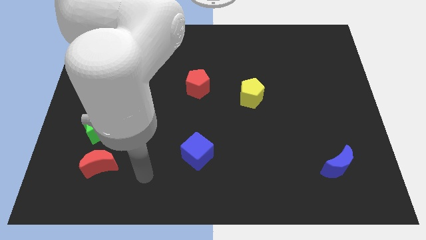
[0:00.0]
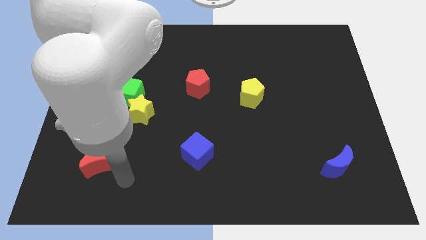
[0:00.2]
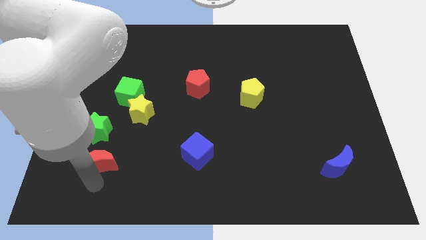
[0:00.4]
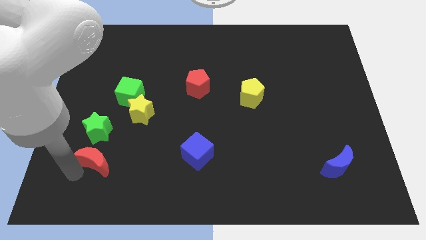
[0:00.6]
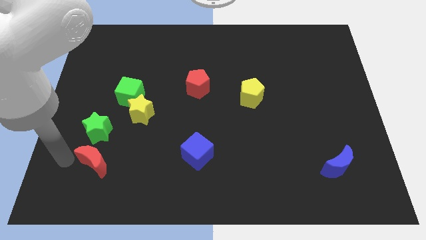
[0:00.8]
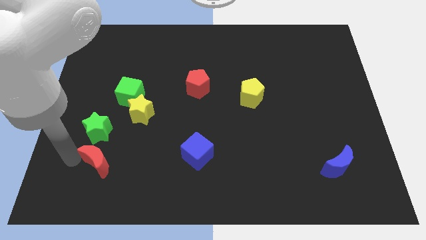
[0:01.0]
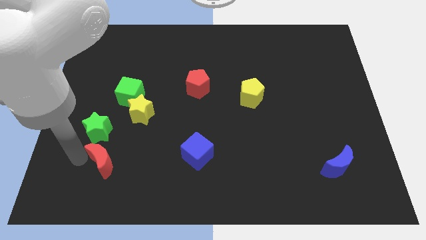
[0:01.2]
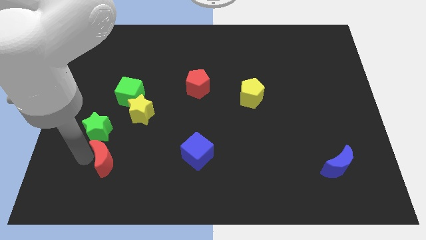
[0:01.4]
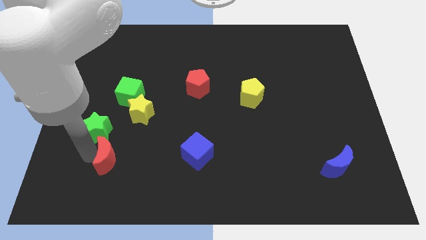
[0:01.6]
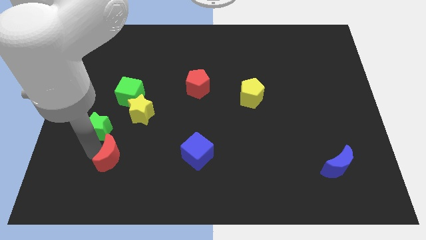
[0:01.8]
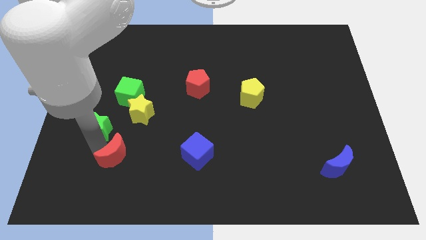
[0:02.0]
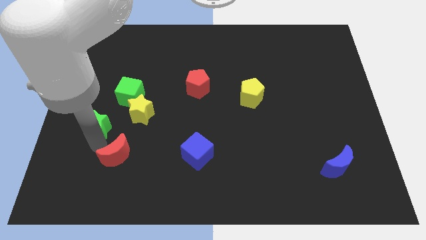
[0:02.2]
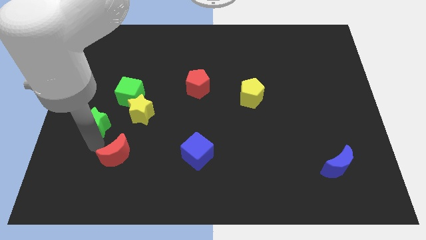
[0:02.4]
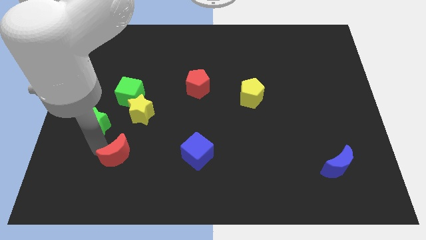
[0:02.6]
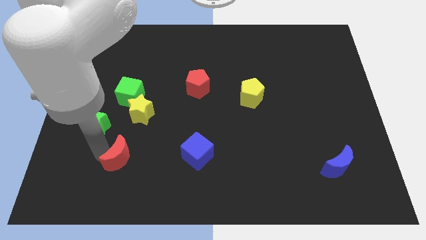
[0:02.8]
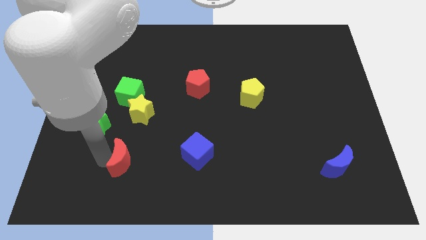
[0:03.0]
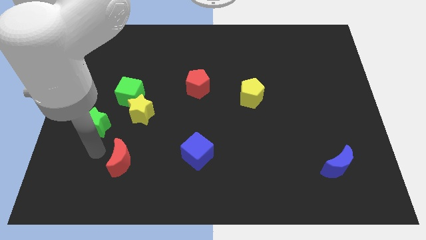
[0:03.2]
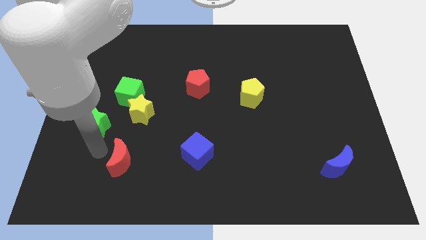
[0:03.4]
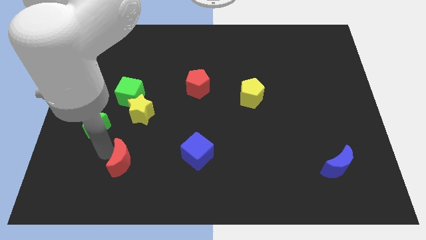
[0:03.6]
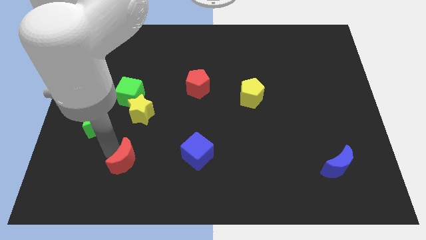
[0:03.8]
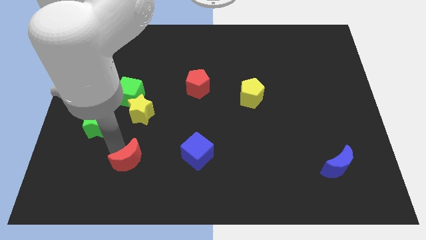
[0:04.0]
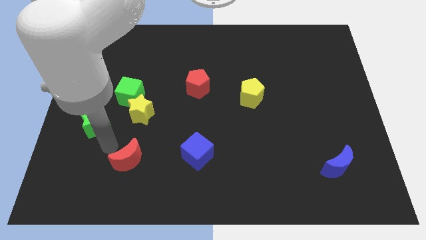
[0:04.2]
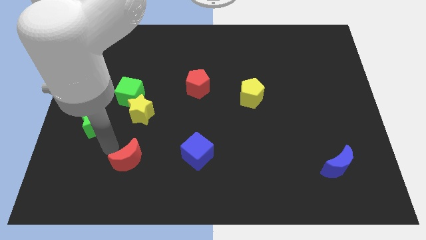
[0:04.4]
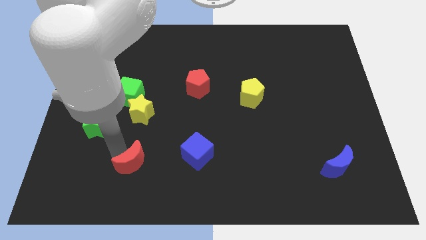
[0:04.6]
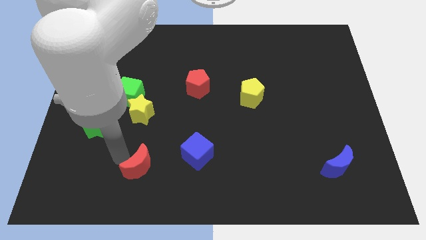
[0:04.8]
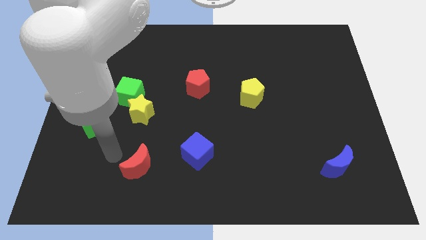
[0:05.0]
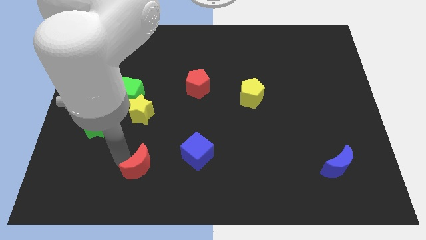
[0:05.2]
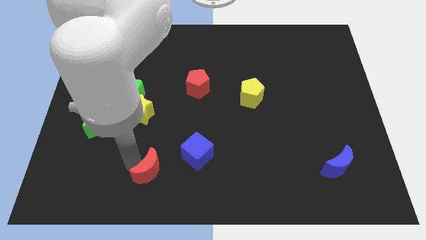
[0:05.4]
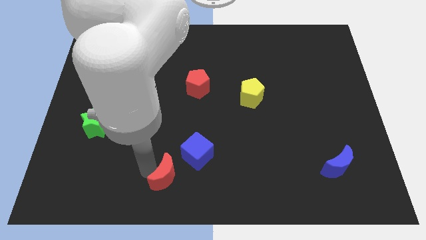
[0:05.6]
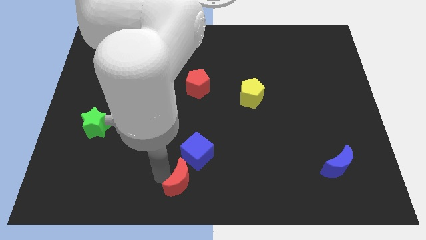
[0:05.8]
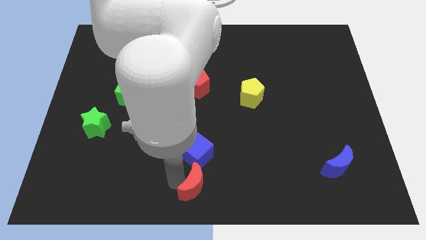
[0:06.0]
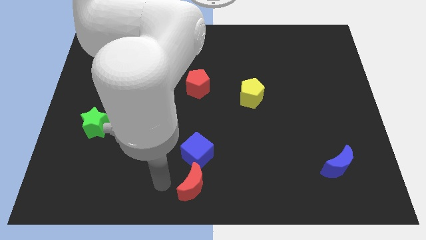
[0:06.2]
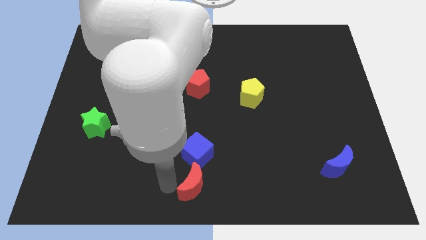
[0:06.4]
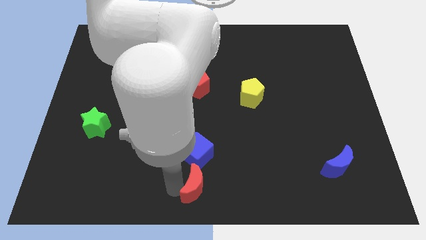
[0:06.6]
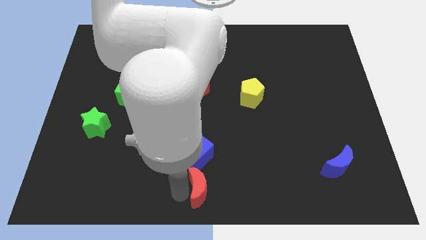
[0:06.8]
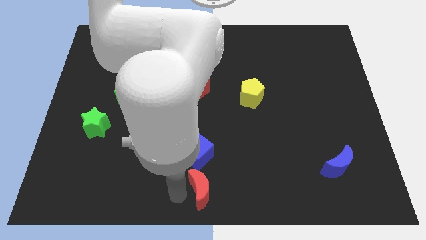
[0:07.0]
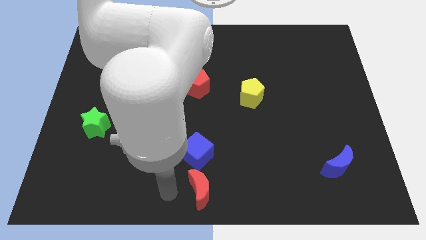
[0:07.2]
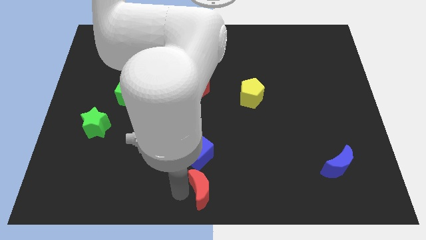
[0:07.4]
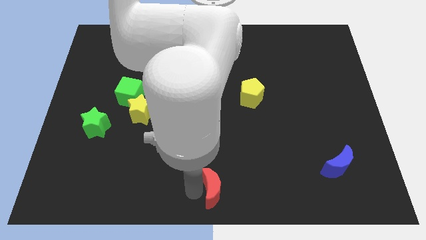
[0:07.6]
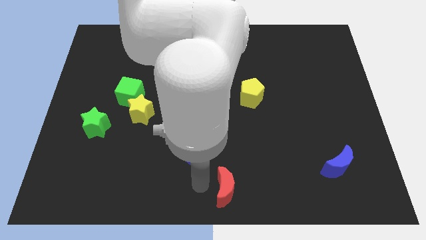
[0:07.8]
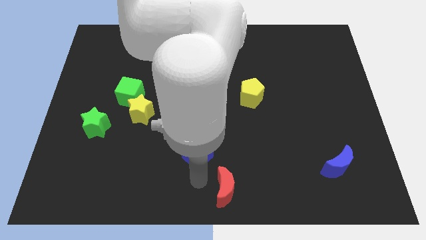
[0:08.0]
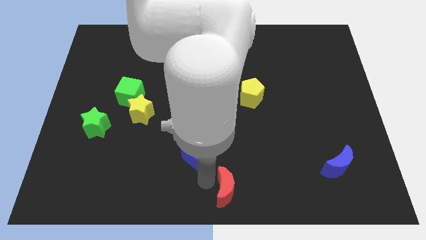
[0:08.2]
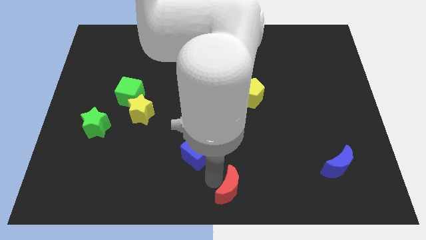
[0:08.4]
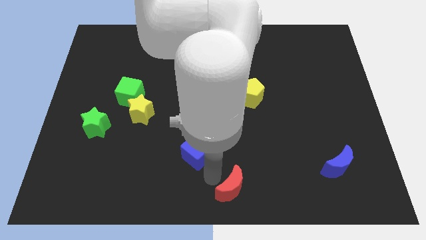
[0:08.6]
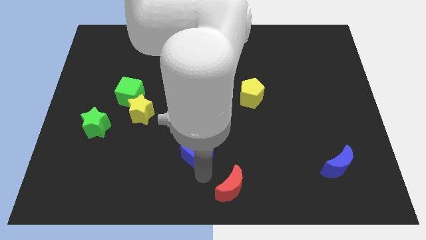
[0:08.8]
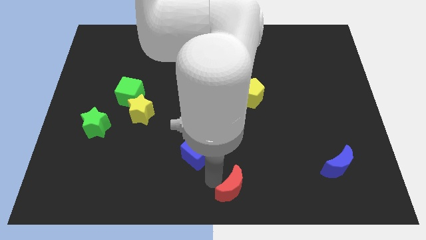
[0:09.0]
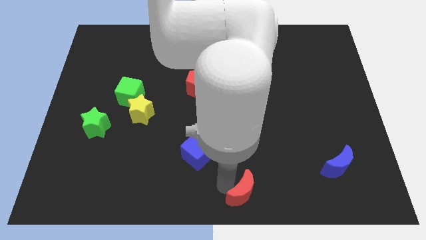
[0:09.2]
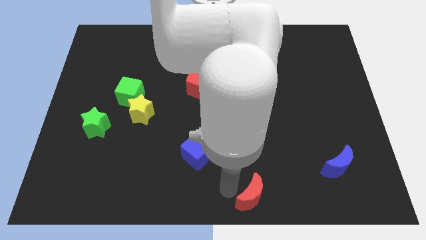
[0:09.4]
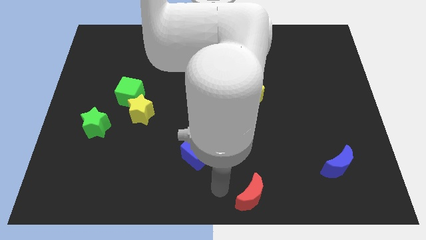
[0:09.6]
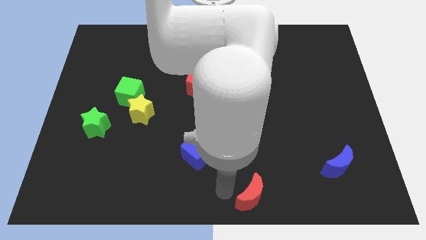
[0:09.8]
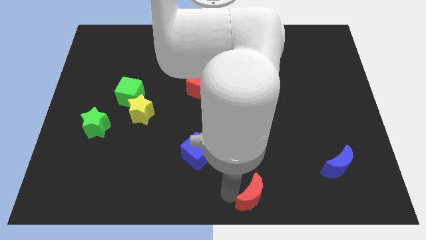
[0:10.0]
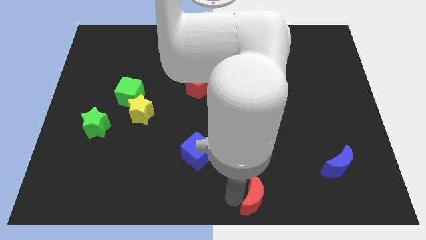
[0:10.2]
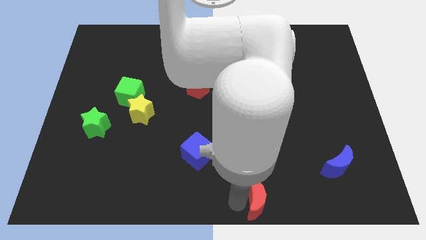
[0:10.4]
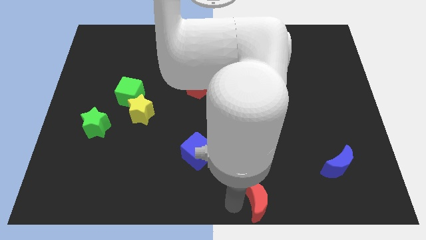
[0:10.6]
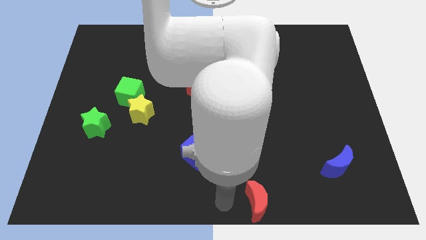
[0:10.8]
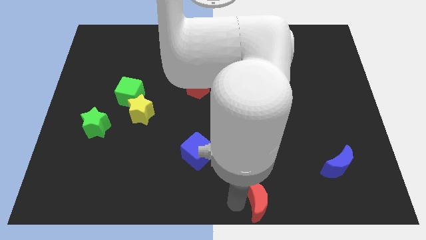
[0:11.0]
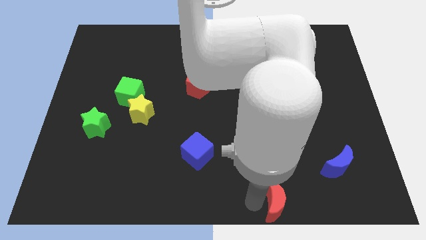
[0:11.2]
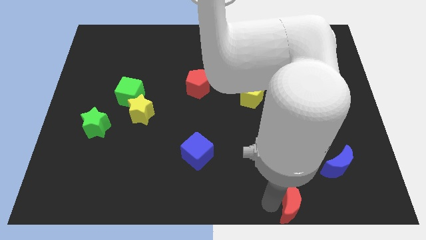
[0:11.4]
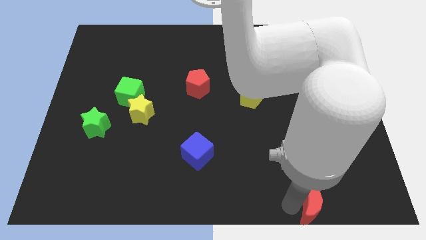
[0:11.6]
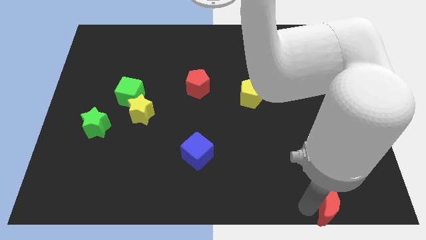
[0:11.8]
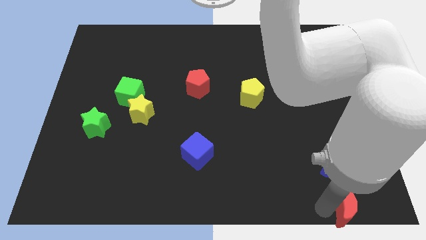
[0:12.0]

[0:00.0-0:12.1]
push the red moon to the lower right corner

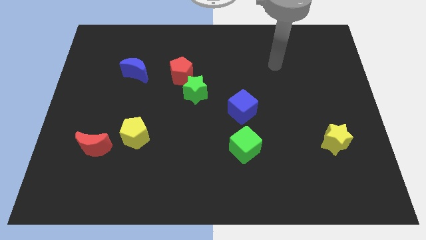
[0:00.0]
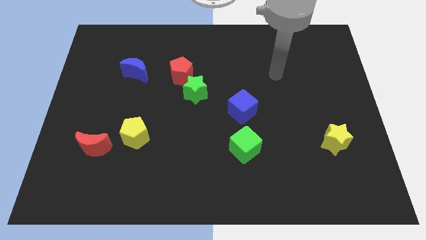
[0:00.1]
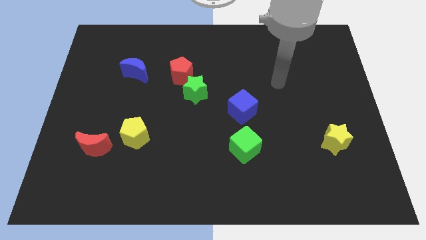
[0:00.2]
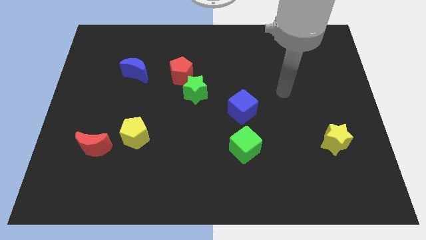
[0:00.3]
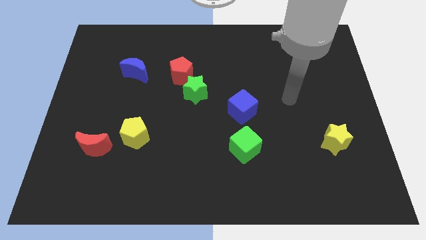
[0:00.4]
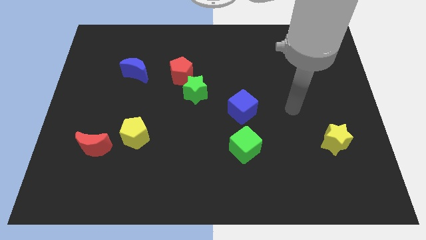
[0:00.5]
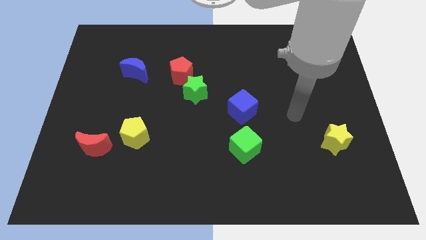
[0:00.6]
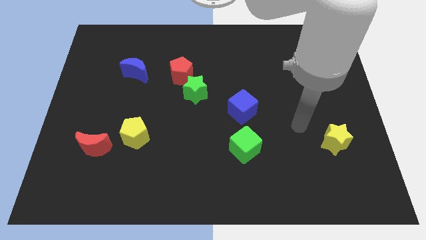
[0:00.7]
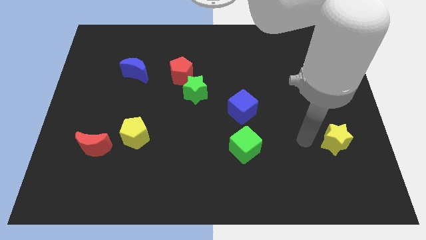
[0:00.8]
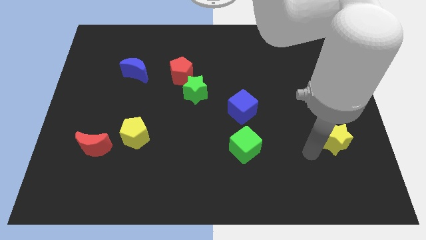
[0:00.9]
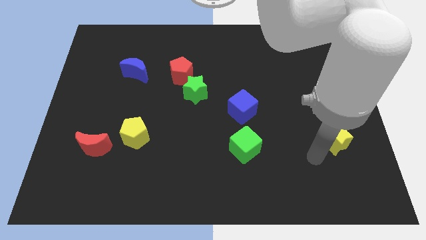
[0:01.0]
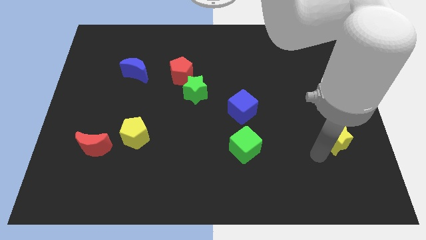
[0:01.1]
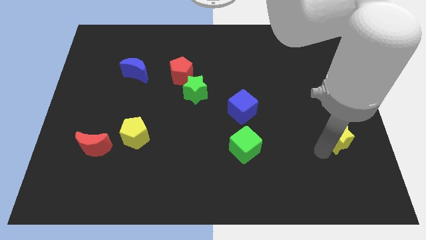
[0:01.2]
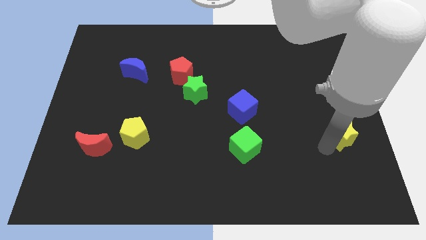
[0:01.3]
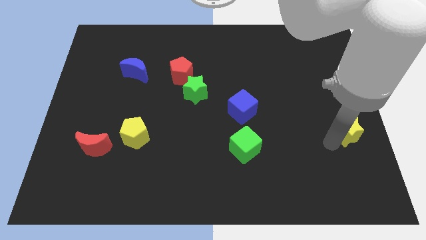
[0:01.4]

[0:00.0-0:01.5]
put the yellow star to the center right
